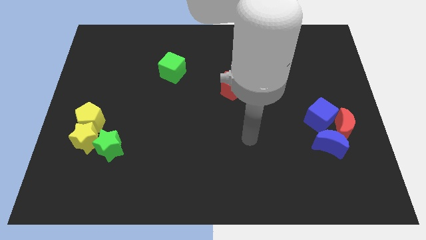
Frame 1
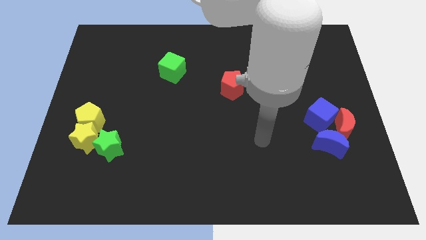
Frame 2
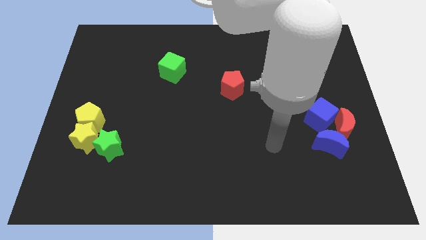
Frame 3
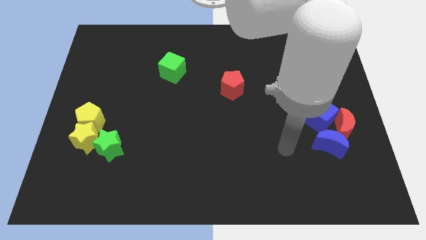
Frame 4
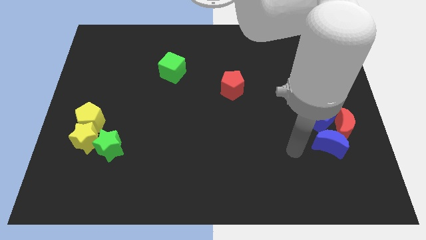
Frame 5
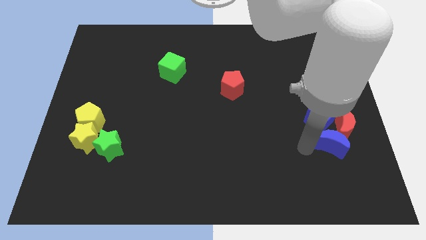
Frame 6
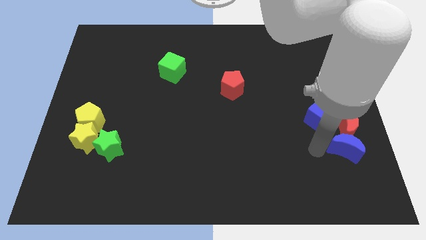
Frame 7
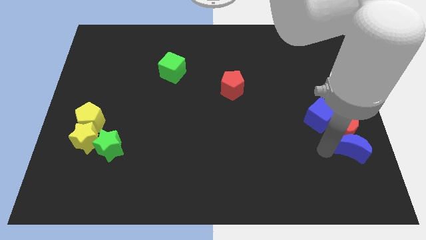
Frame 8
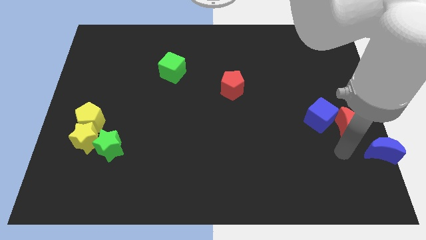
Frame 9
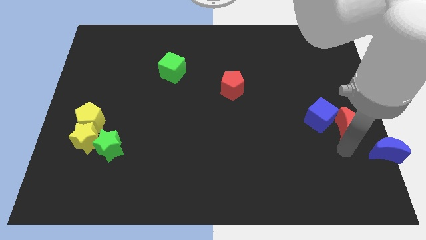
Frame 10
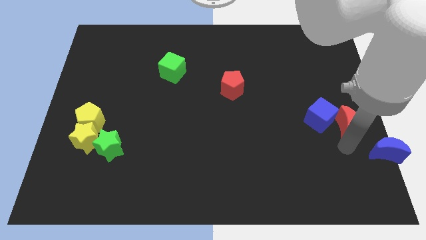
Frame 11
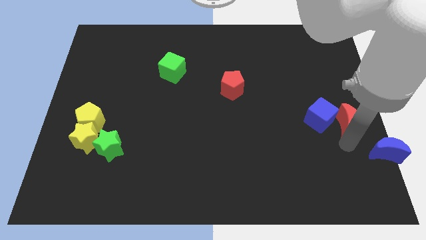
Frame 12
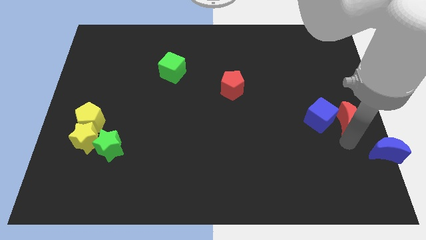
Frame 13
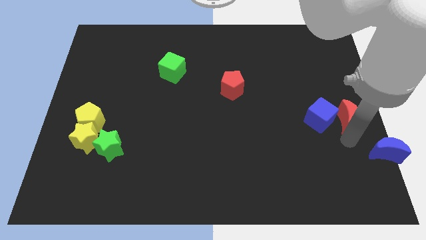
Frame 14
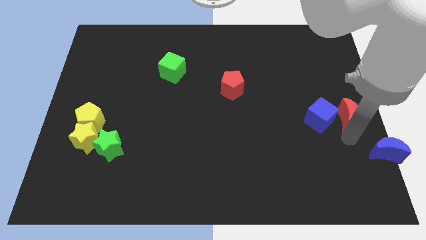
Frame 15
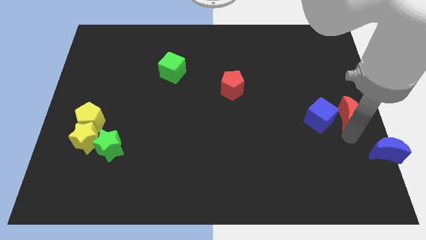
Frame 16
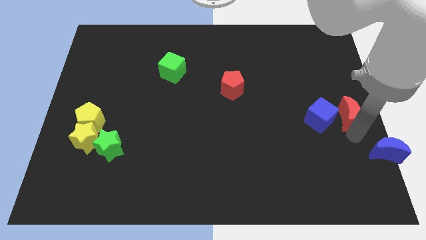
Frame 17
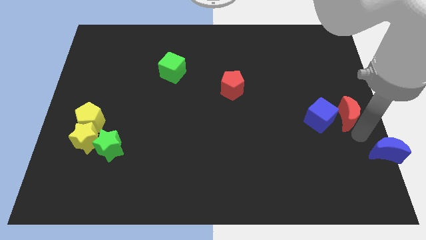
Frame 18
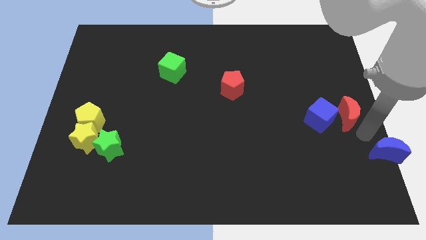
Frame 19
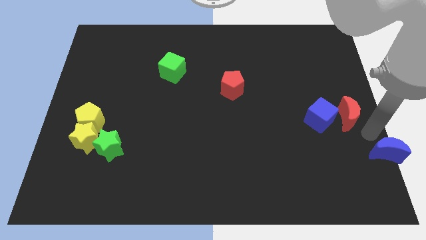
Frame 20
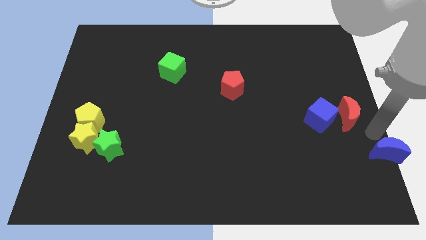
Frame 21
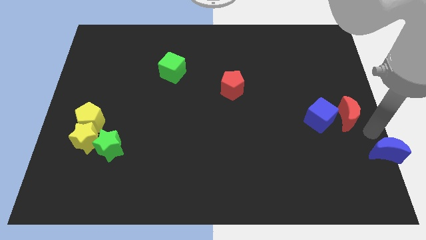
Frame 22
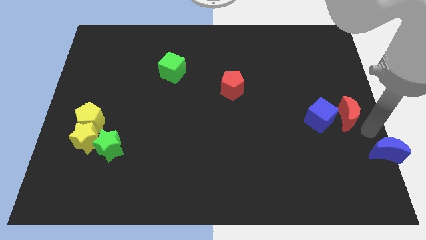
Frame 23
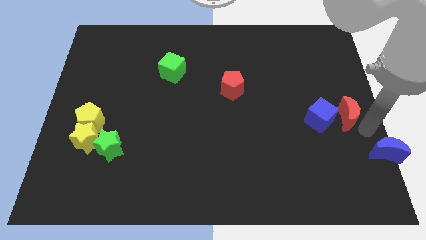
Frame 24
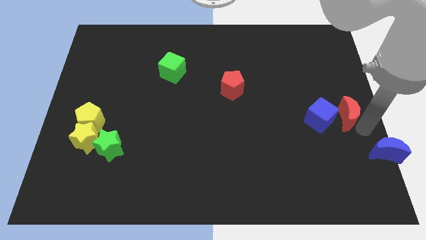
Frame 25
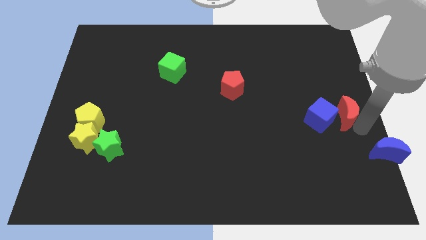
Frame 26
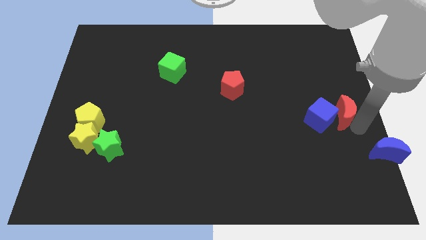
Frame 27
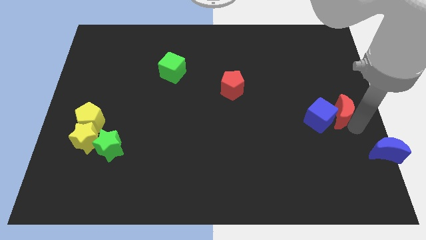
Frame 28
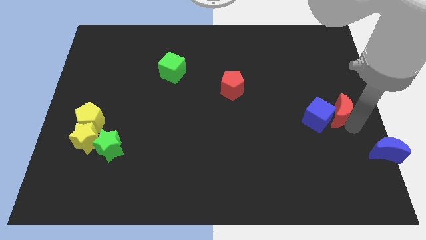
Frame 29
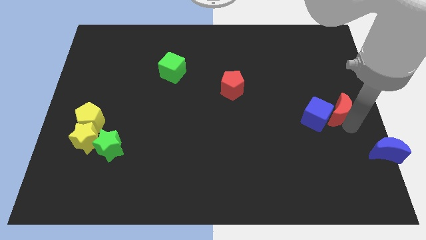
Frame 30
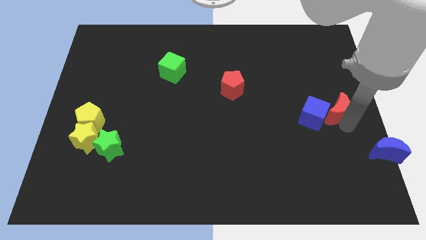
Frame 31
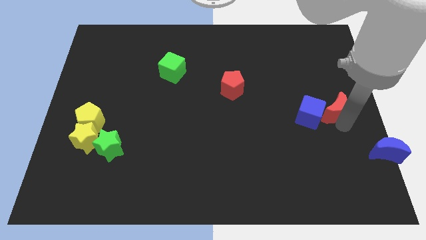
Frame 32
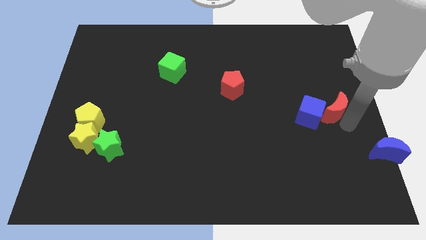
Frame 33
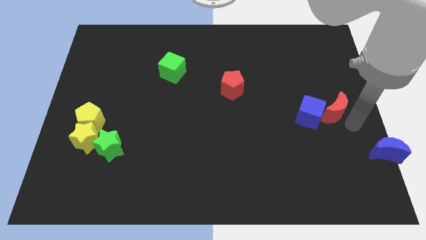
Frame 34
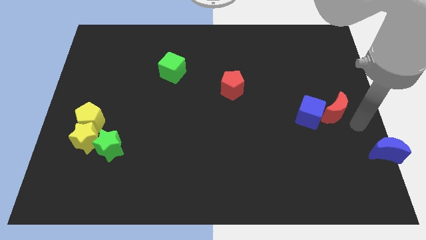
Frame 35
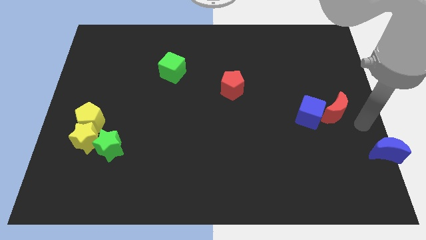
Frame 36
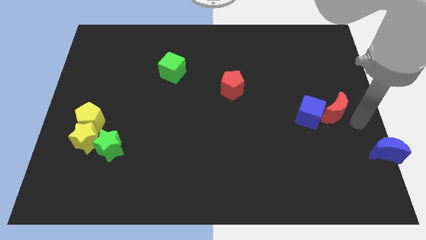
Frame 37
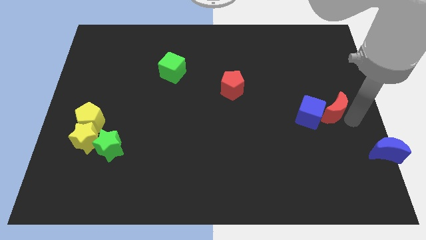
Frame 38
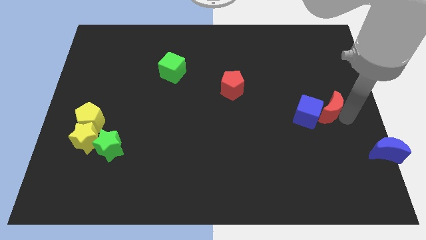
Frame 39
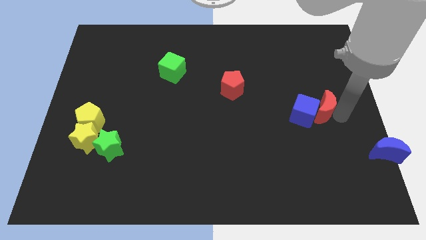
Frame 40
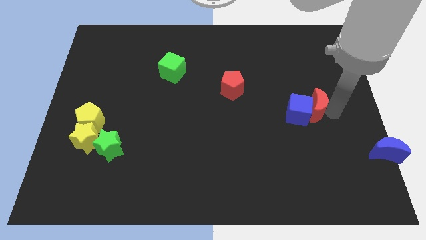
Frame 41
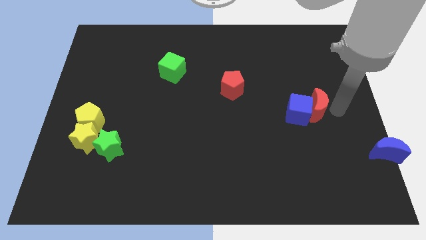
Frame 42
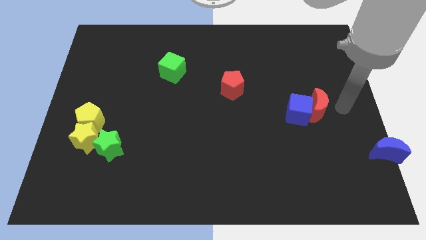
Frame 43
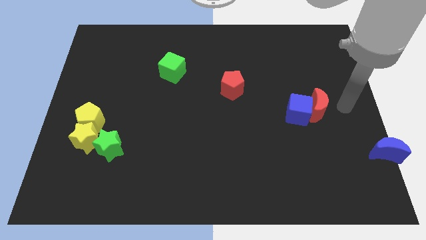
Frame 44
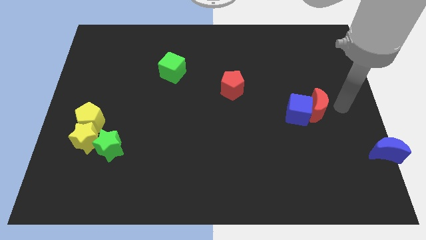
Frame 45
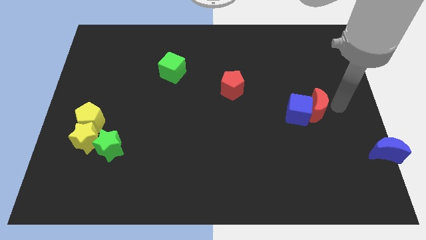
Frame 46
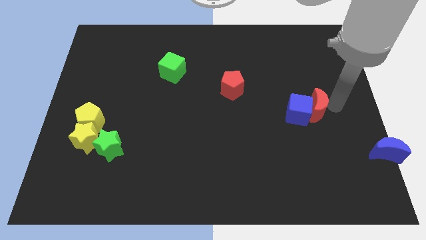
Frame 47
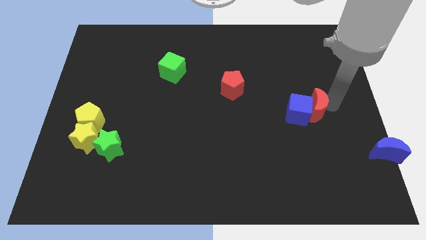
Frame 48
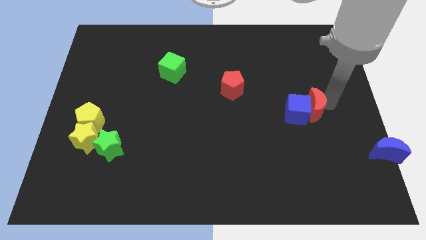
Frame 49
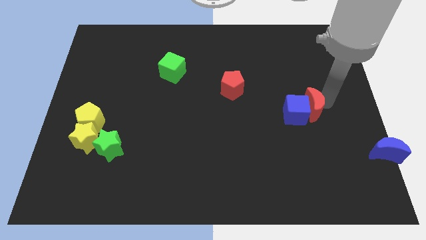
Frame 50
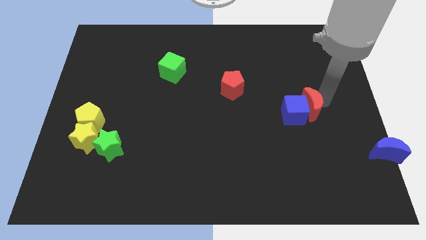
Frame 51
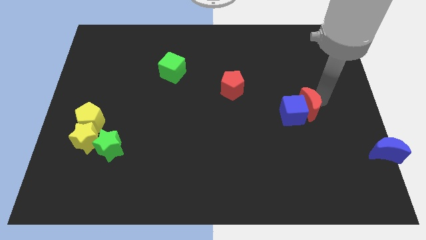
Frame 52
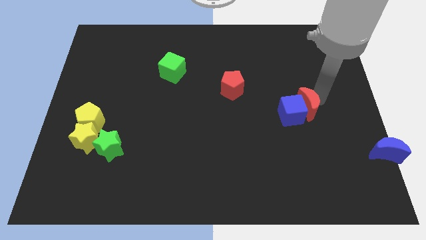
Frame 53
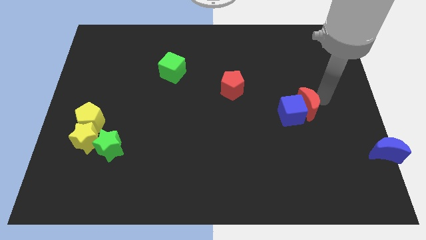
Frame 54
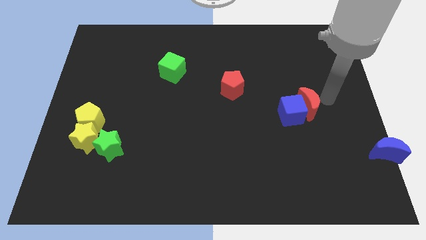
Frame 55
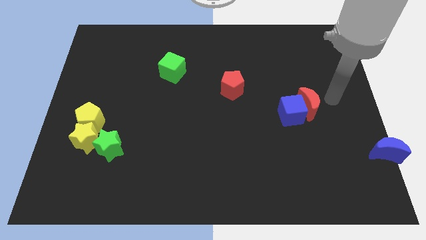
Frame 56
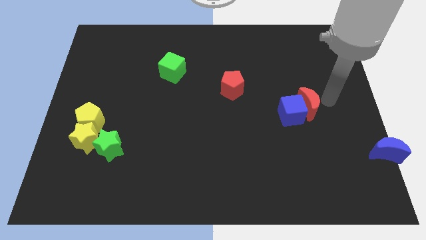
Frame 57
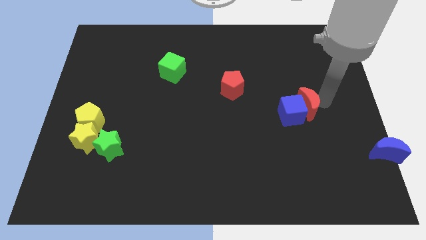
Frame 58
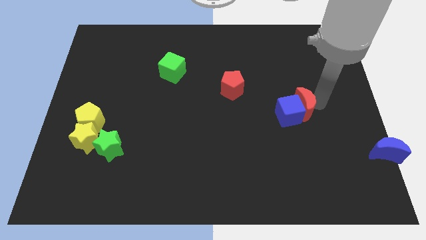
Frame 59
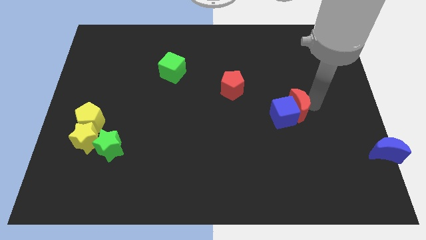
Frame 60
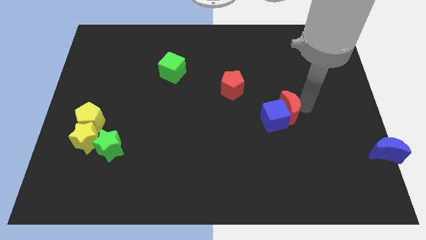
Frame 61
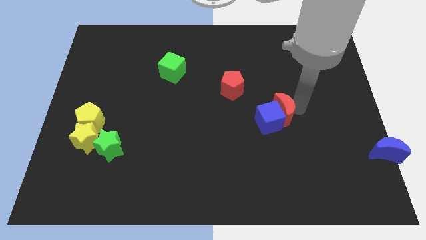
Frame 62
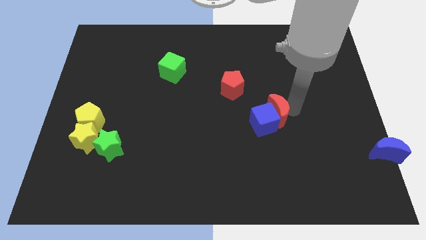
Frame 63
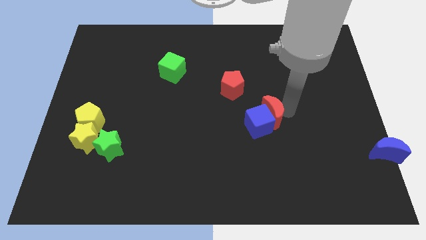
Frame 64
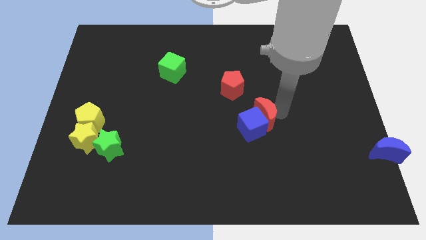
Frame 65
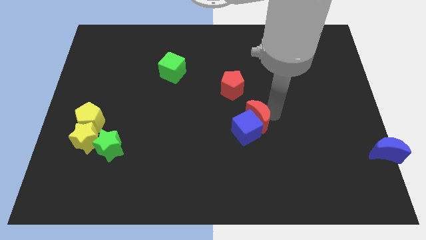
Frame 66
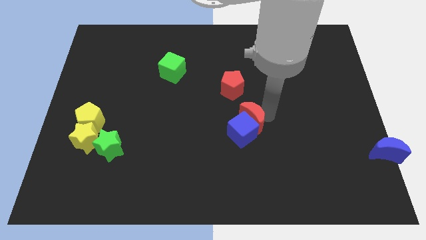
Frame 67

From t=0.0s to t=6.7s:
push the red moon to the left

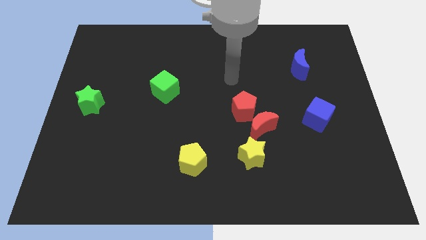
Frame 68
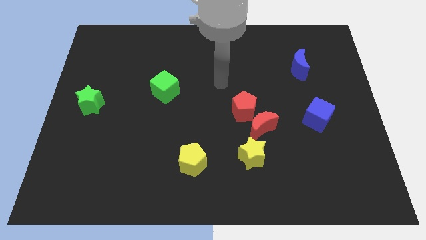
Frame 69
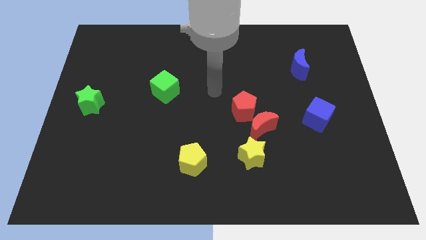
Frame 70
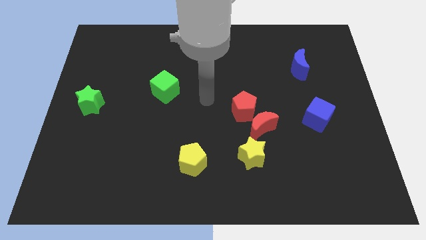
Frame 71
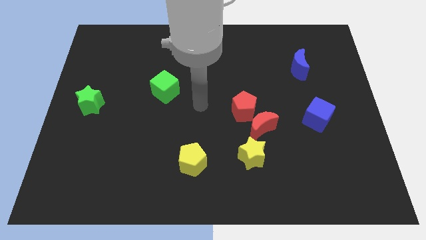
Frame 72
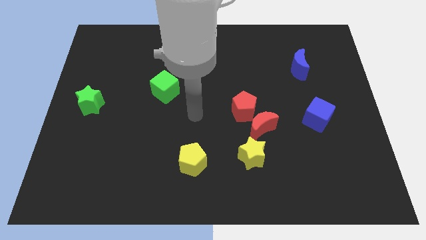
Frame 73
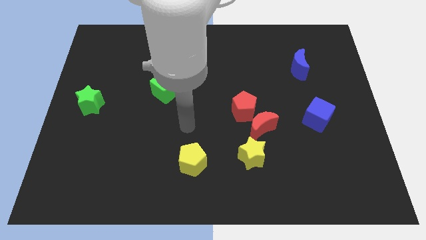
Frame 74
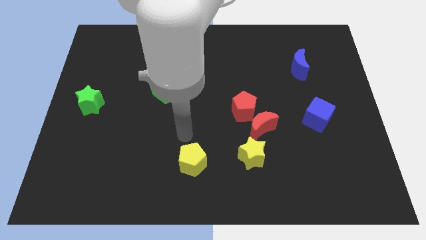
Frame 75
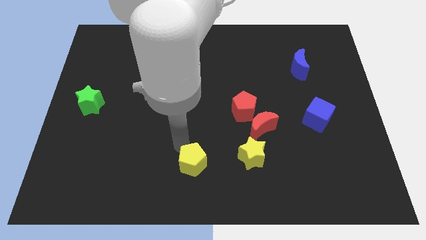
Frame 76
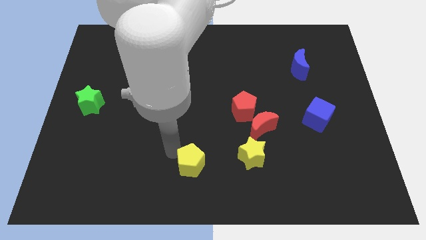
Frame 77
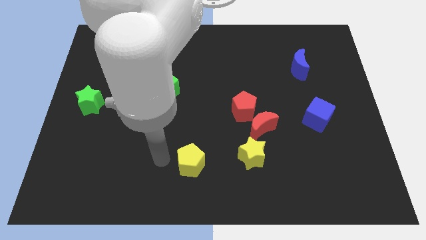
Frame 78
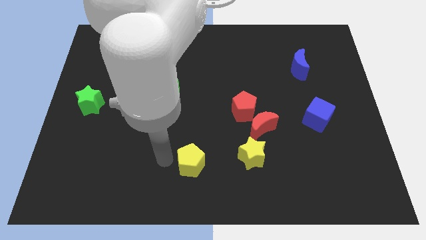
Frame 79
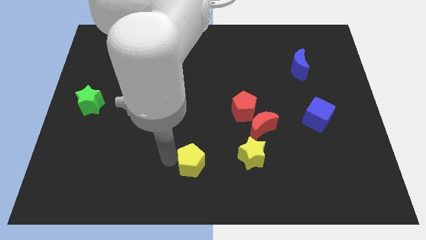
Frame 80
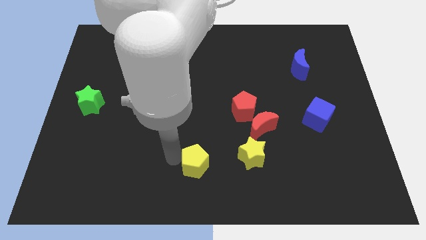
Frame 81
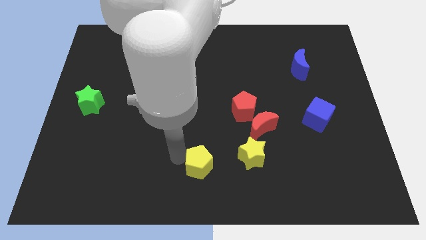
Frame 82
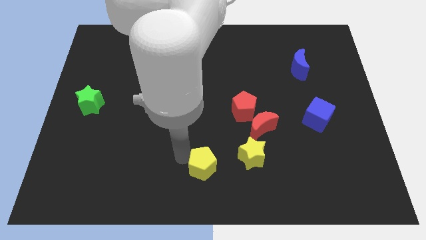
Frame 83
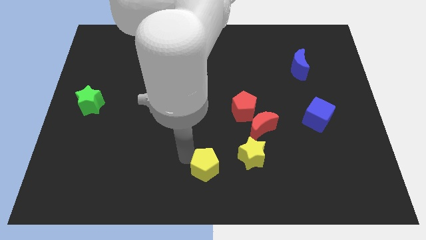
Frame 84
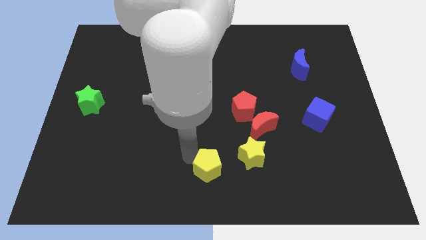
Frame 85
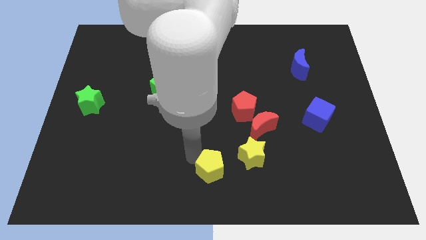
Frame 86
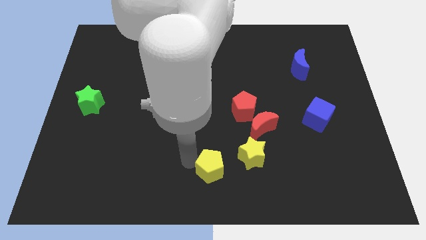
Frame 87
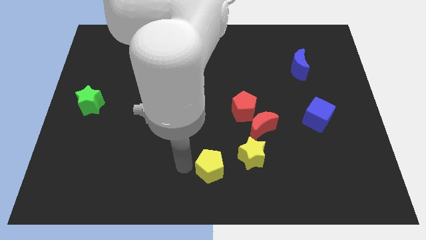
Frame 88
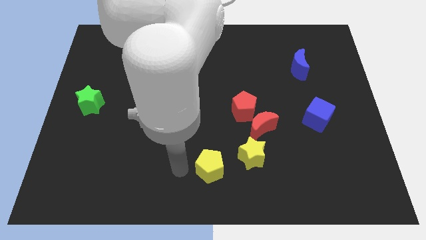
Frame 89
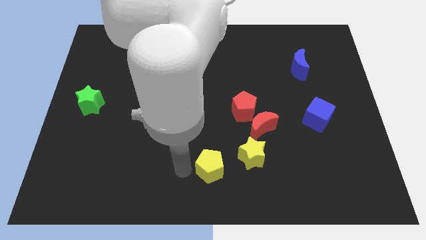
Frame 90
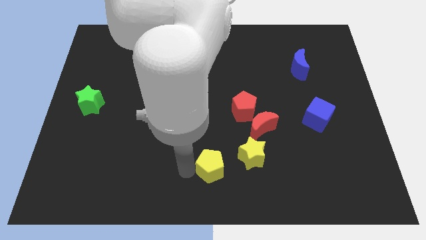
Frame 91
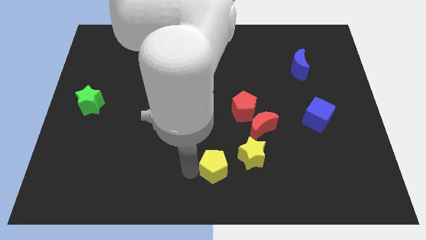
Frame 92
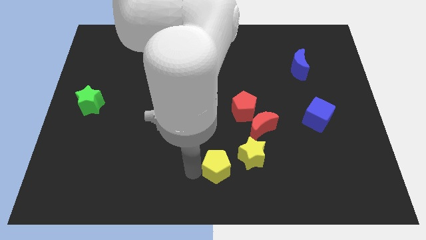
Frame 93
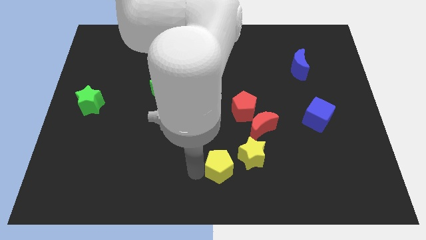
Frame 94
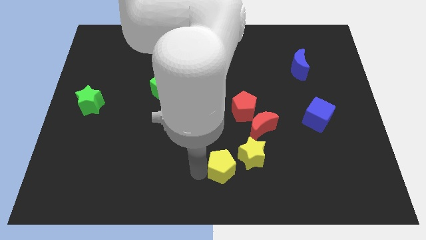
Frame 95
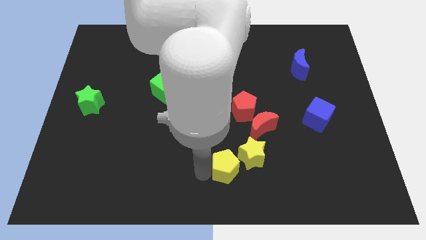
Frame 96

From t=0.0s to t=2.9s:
move the yellow pentagon to the right a bit
